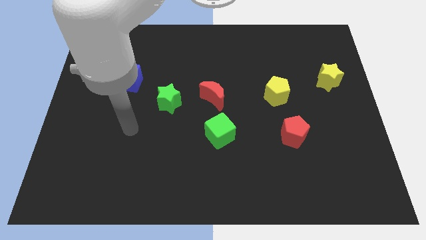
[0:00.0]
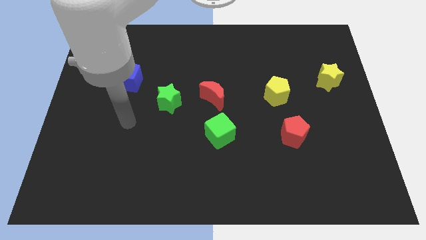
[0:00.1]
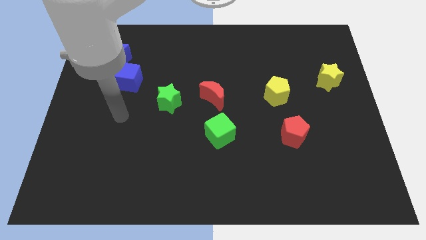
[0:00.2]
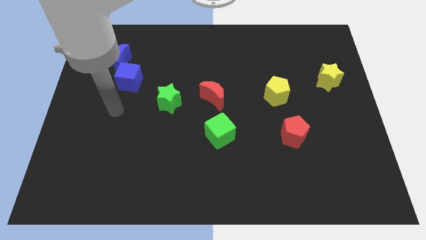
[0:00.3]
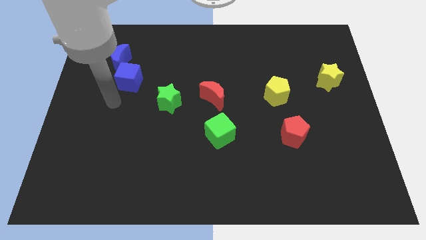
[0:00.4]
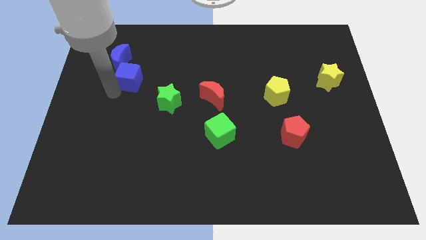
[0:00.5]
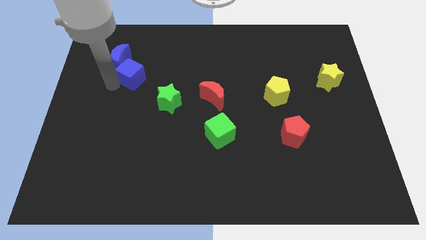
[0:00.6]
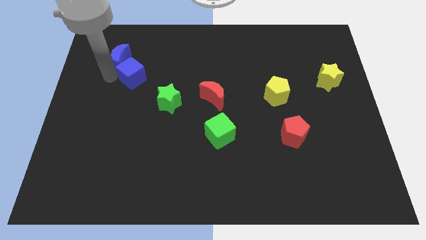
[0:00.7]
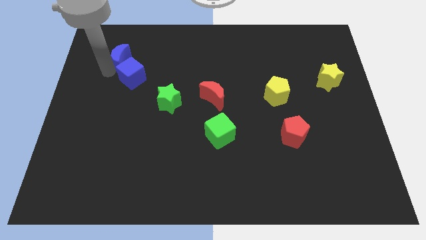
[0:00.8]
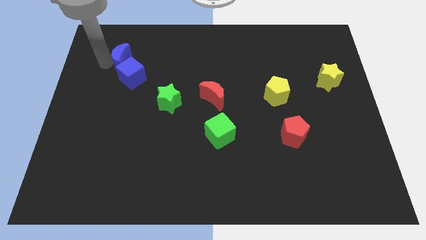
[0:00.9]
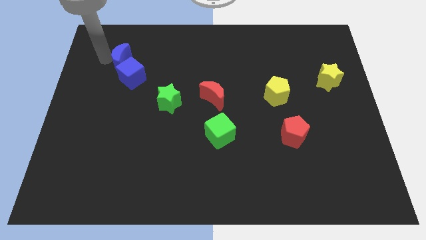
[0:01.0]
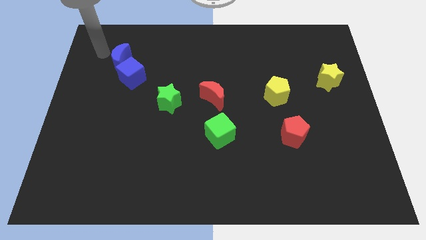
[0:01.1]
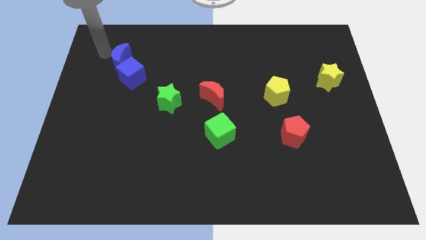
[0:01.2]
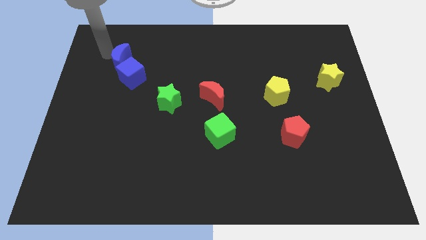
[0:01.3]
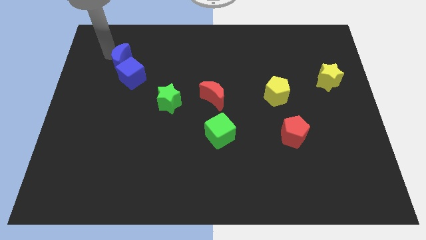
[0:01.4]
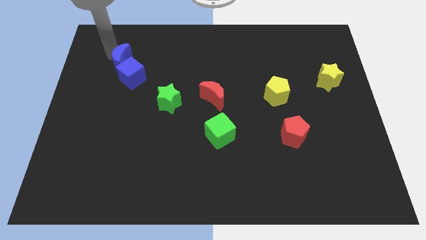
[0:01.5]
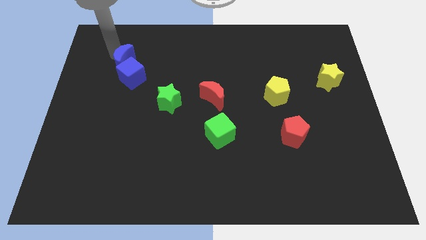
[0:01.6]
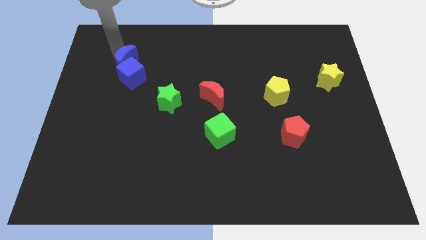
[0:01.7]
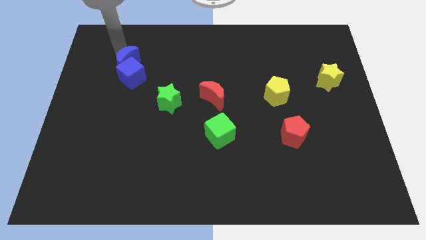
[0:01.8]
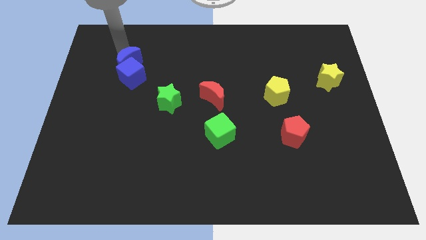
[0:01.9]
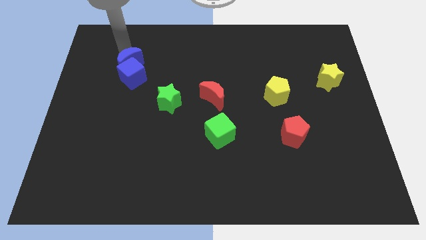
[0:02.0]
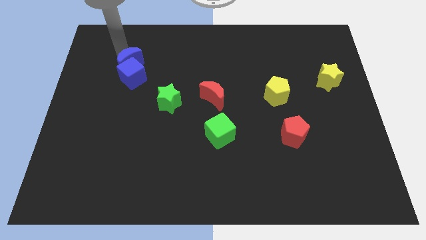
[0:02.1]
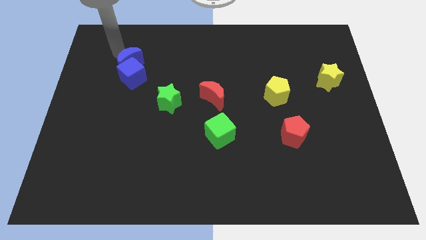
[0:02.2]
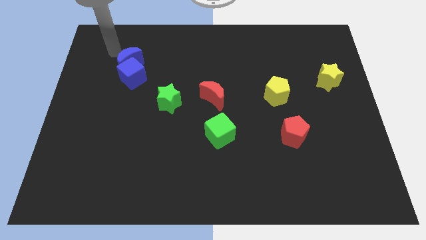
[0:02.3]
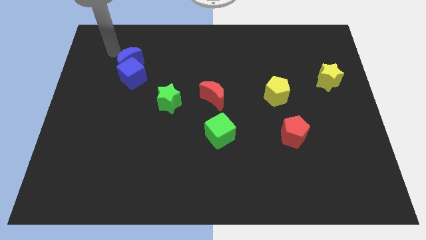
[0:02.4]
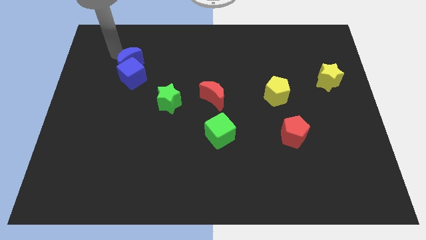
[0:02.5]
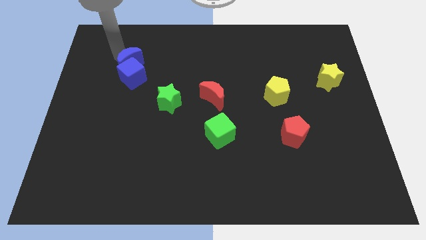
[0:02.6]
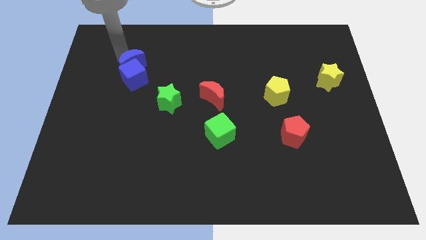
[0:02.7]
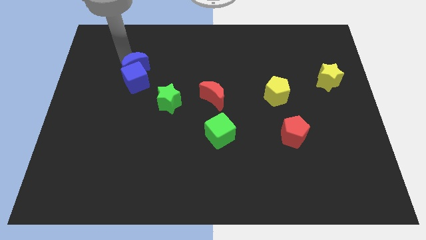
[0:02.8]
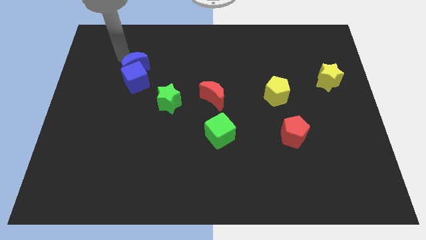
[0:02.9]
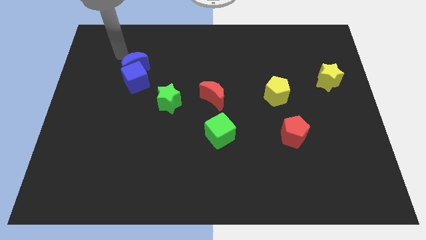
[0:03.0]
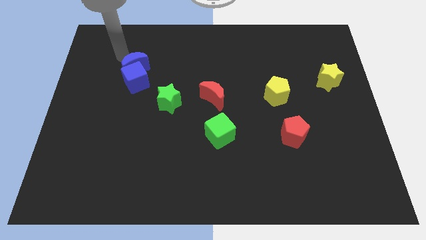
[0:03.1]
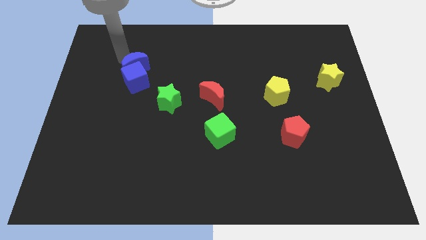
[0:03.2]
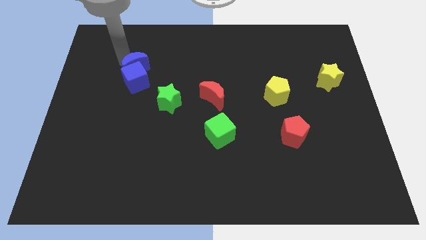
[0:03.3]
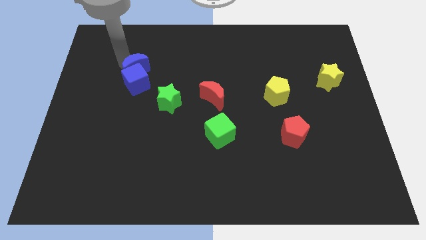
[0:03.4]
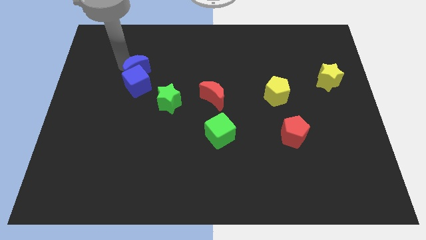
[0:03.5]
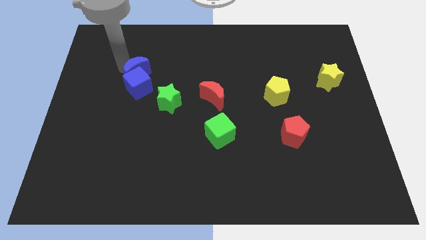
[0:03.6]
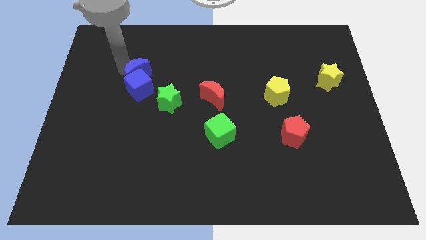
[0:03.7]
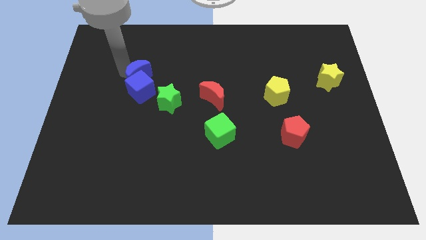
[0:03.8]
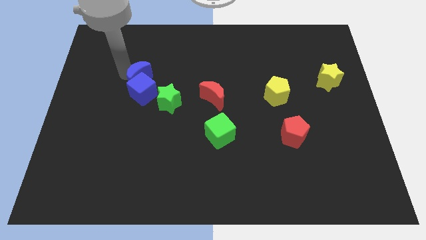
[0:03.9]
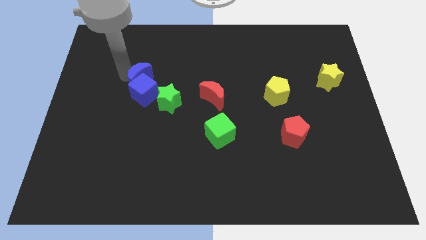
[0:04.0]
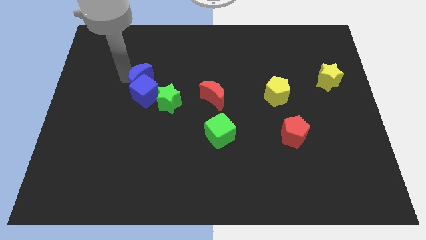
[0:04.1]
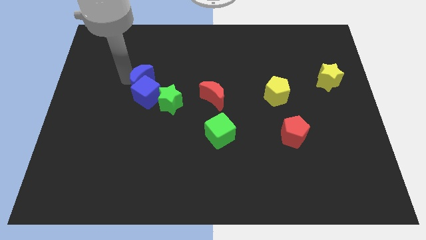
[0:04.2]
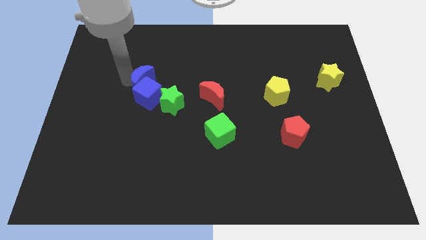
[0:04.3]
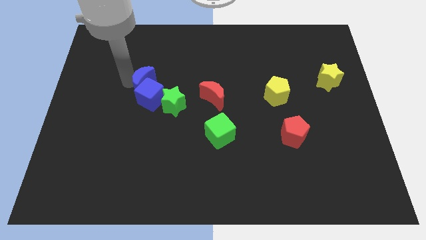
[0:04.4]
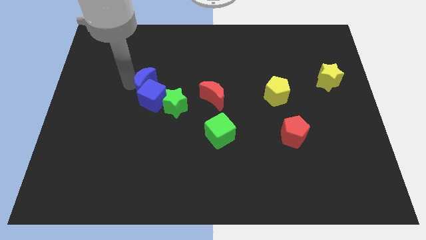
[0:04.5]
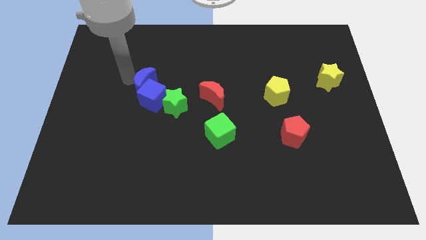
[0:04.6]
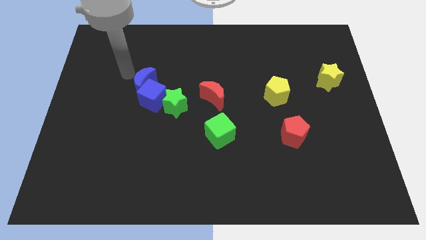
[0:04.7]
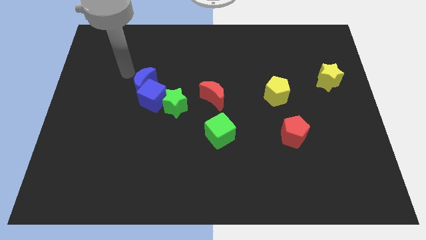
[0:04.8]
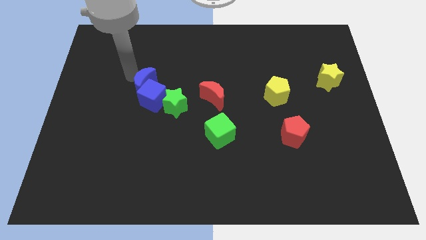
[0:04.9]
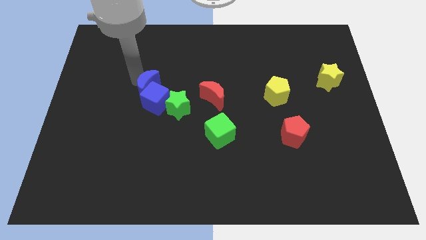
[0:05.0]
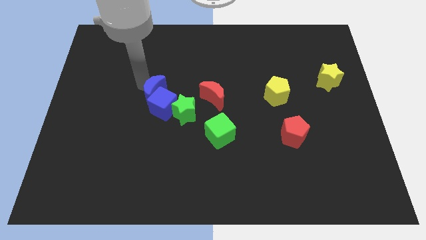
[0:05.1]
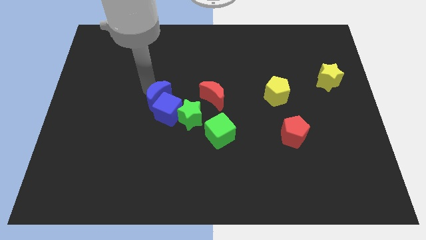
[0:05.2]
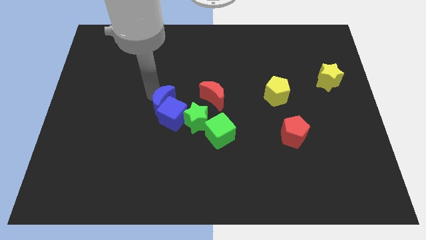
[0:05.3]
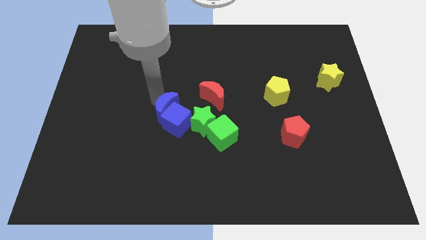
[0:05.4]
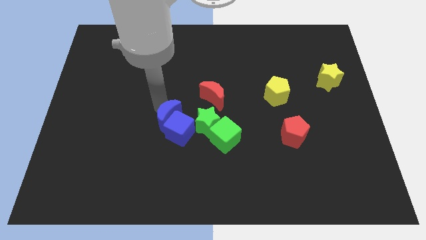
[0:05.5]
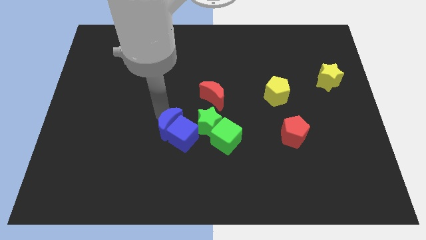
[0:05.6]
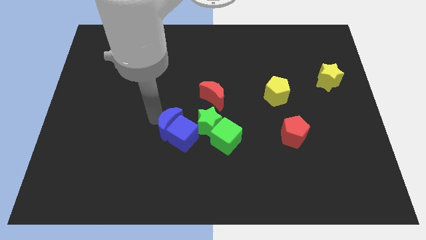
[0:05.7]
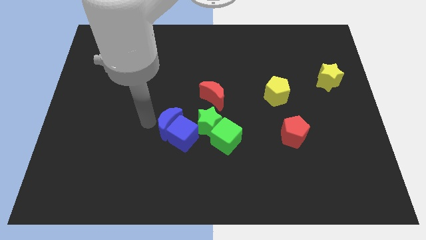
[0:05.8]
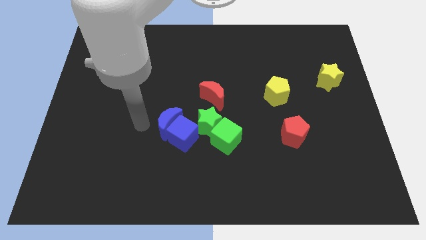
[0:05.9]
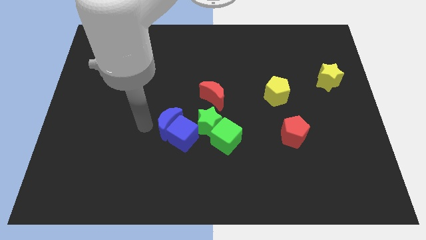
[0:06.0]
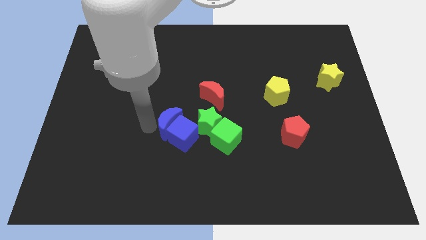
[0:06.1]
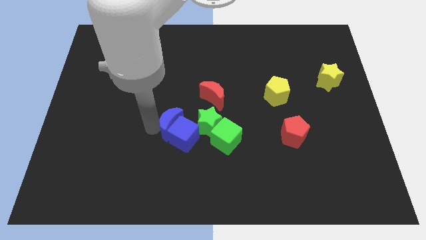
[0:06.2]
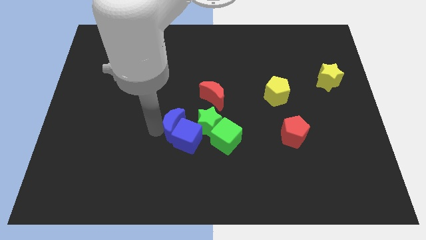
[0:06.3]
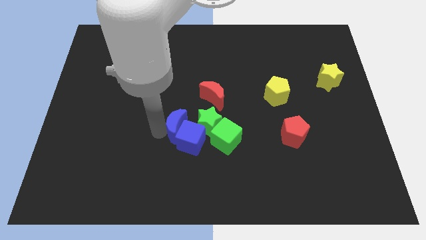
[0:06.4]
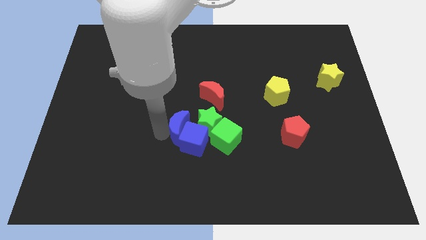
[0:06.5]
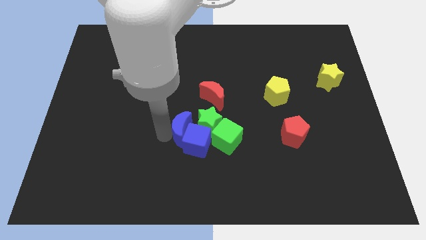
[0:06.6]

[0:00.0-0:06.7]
slide the blue moon to the green star

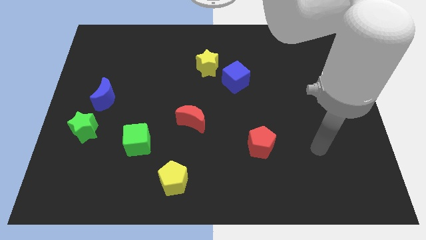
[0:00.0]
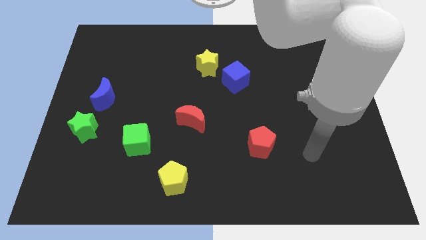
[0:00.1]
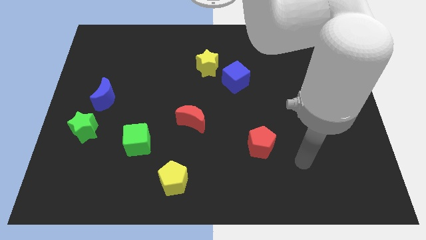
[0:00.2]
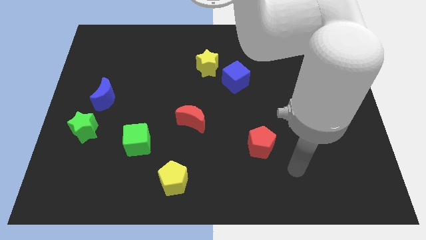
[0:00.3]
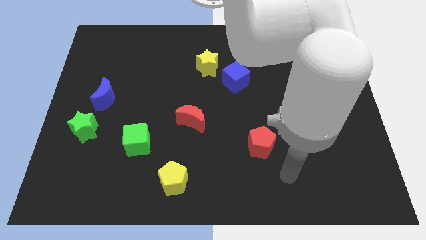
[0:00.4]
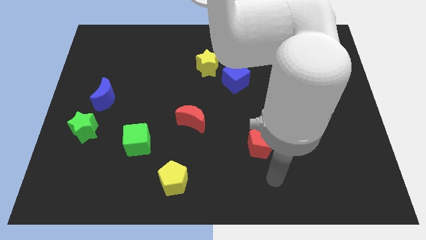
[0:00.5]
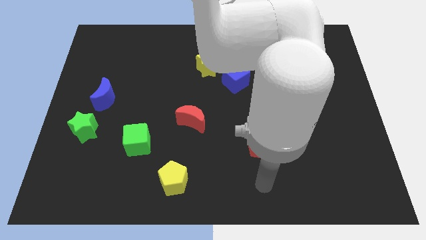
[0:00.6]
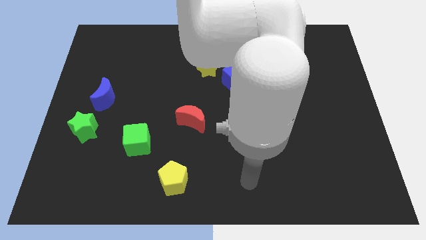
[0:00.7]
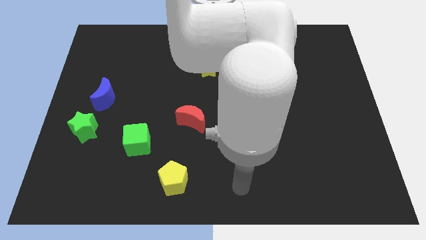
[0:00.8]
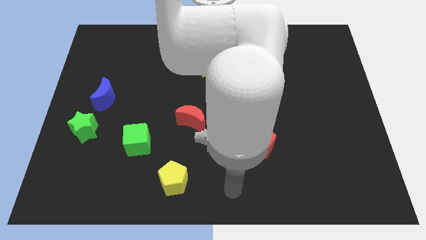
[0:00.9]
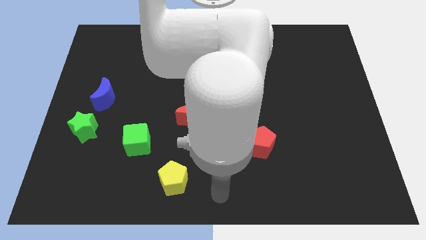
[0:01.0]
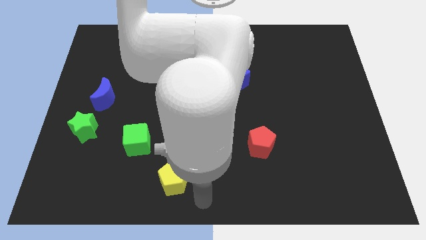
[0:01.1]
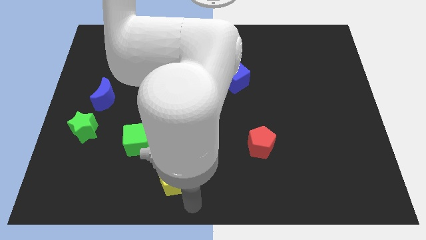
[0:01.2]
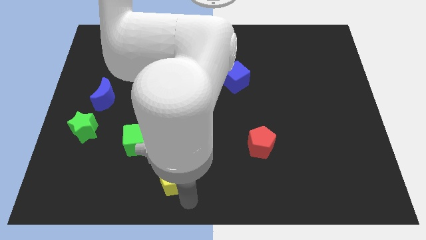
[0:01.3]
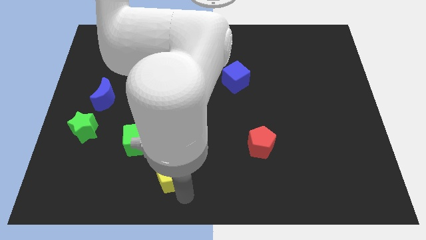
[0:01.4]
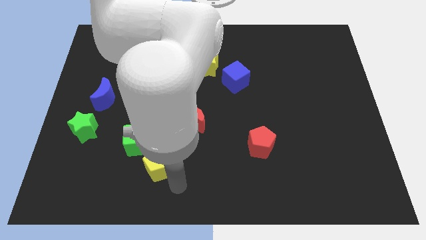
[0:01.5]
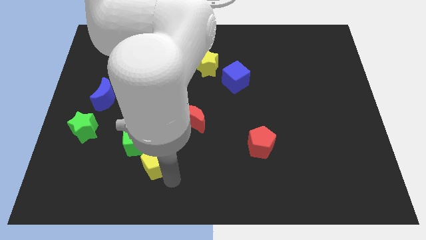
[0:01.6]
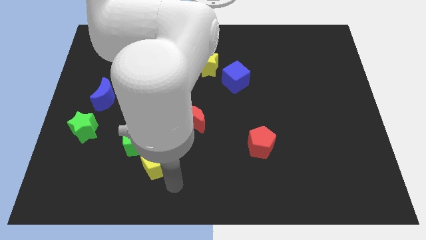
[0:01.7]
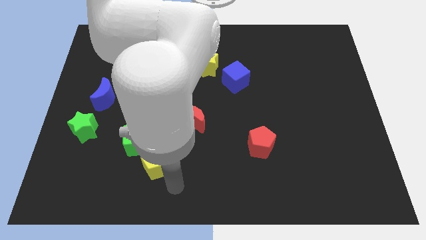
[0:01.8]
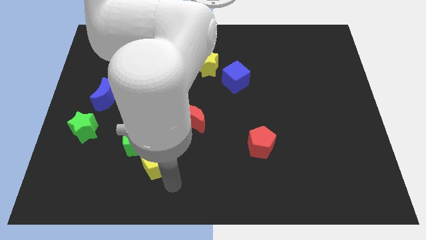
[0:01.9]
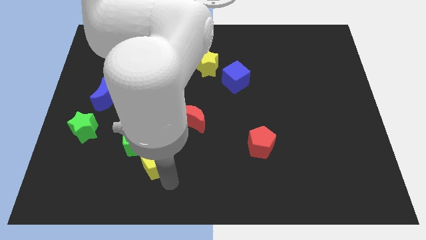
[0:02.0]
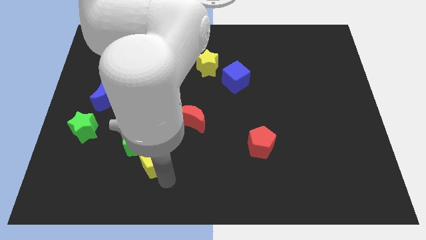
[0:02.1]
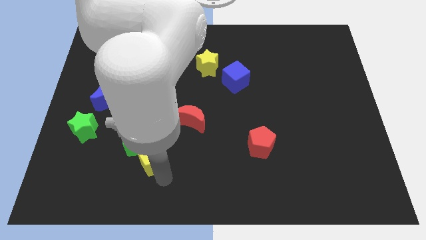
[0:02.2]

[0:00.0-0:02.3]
push the yellow pentagon towards the green cube
